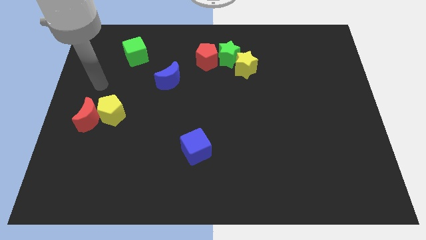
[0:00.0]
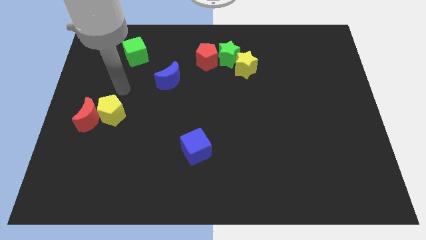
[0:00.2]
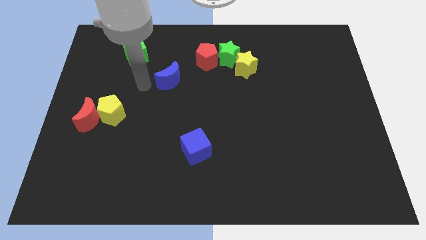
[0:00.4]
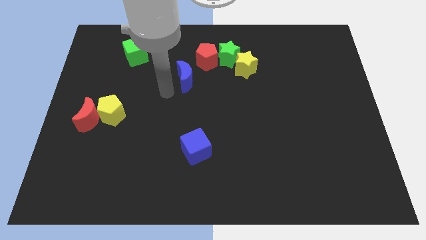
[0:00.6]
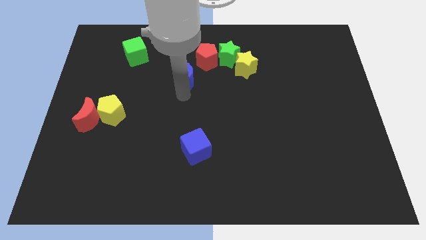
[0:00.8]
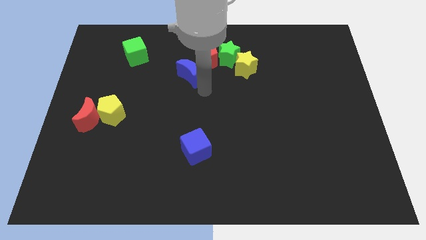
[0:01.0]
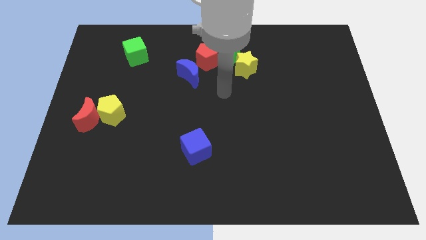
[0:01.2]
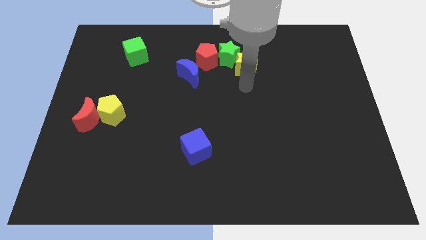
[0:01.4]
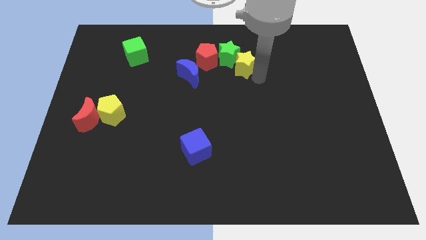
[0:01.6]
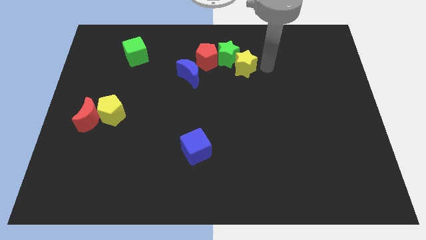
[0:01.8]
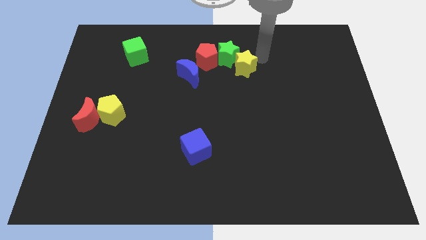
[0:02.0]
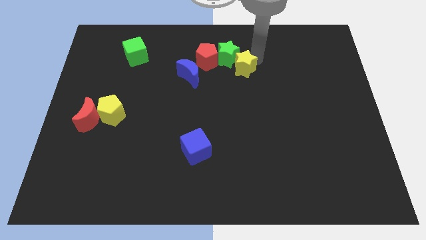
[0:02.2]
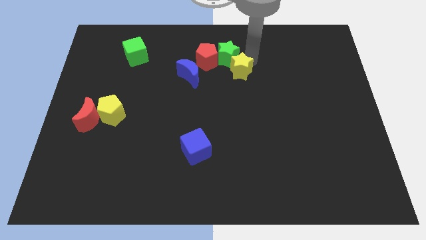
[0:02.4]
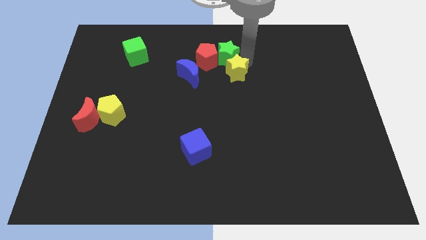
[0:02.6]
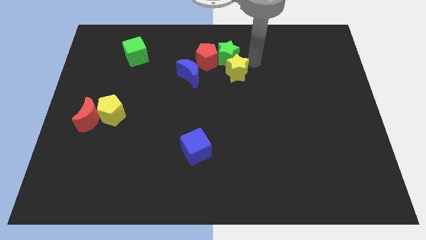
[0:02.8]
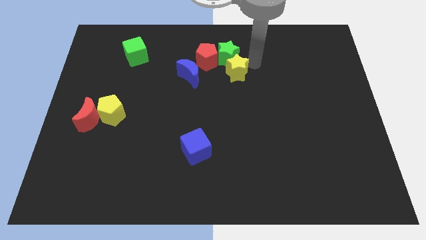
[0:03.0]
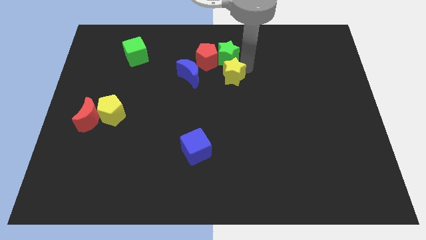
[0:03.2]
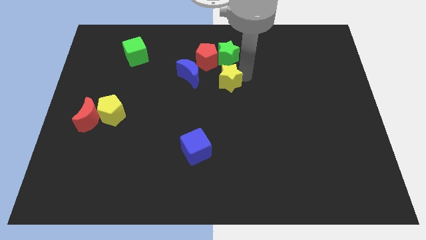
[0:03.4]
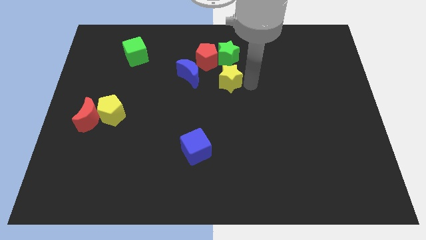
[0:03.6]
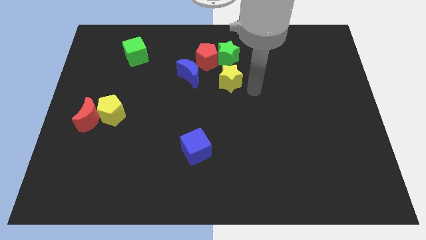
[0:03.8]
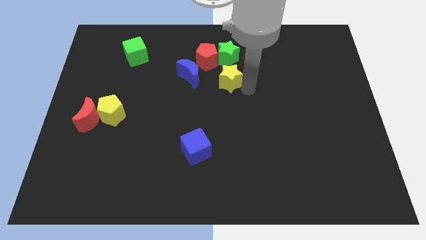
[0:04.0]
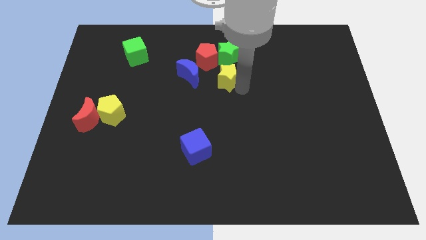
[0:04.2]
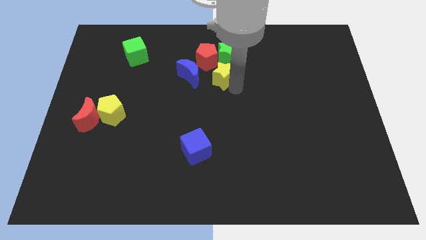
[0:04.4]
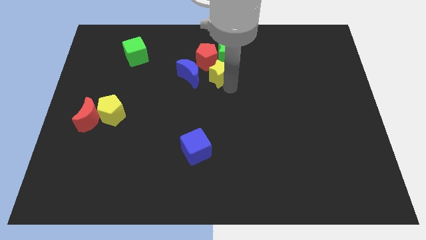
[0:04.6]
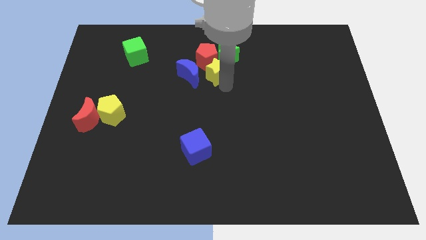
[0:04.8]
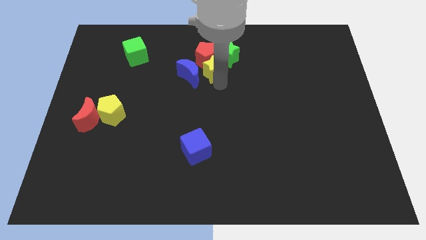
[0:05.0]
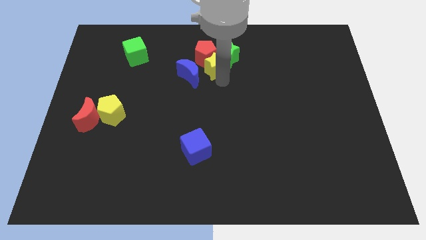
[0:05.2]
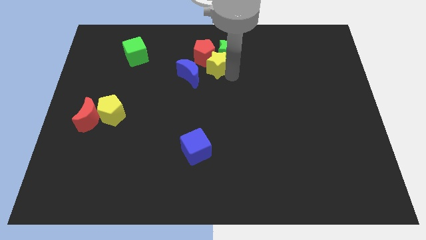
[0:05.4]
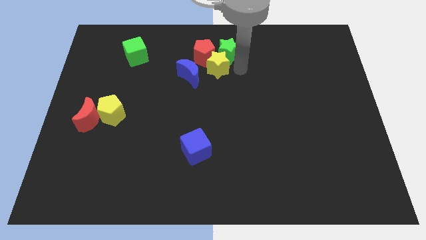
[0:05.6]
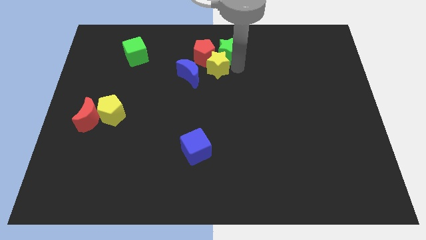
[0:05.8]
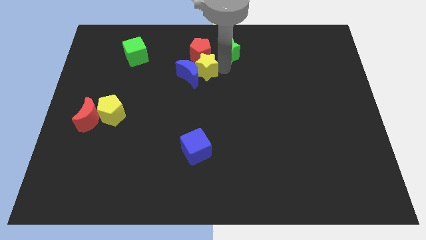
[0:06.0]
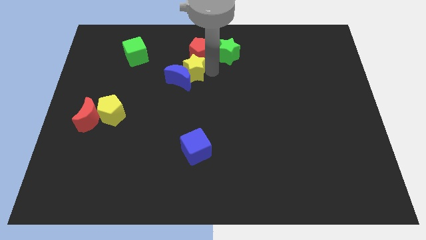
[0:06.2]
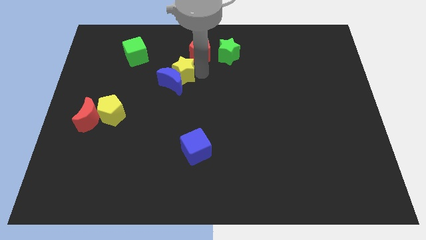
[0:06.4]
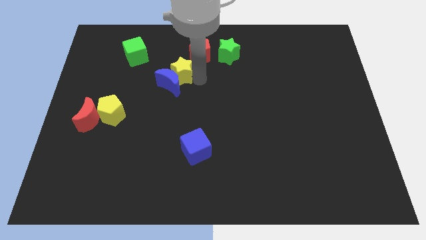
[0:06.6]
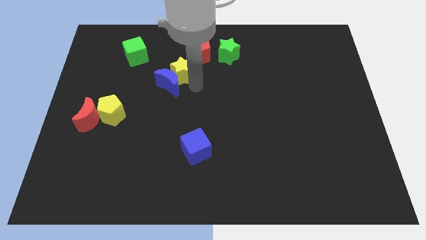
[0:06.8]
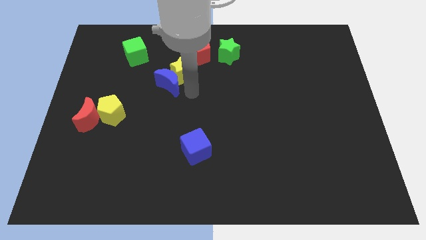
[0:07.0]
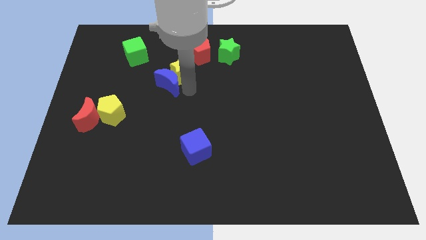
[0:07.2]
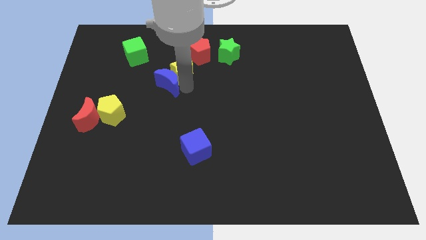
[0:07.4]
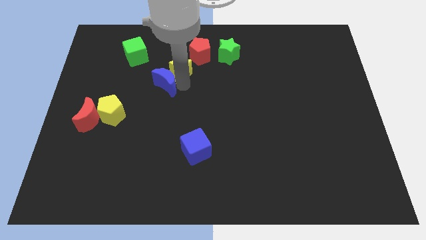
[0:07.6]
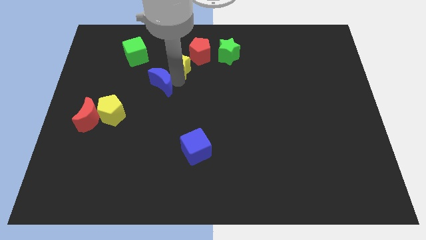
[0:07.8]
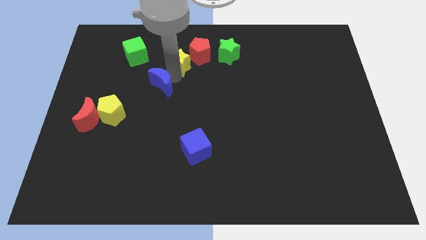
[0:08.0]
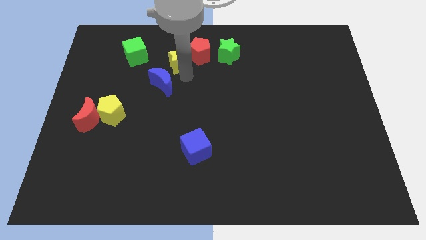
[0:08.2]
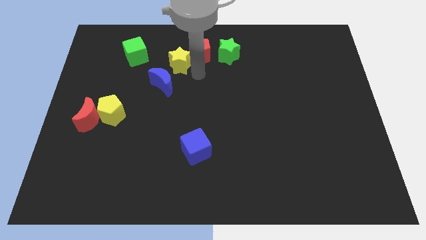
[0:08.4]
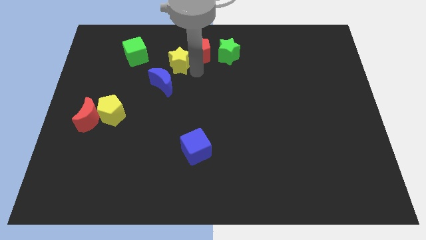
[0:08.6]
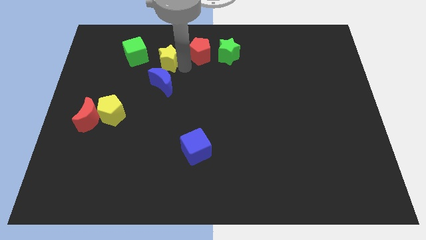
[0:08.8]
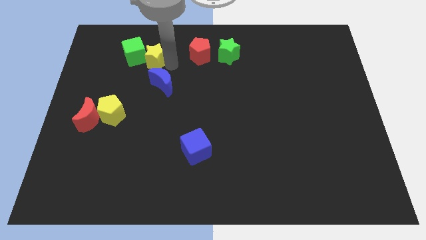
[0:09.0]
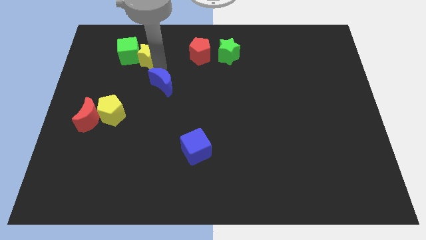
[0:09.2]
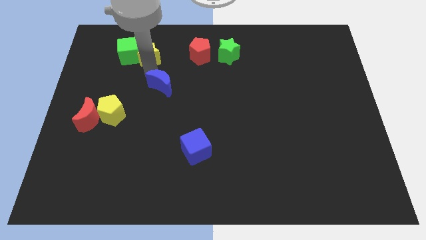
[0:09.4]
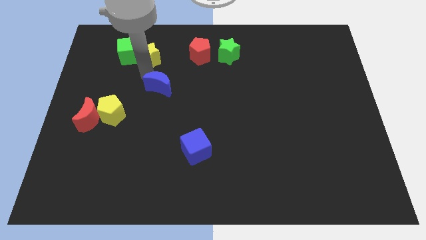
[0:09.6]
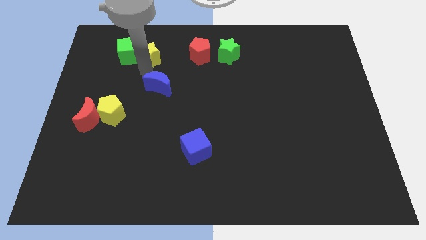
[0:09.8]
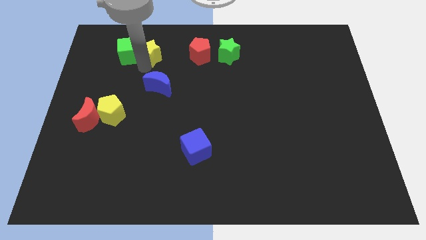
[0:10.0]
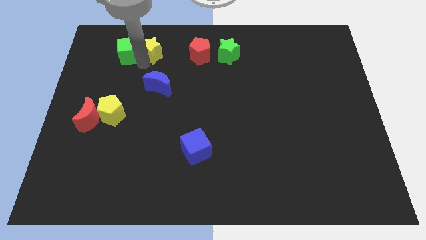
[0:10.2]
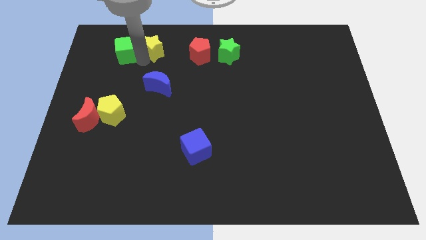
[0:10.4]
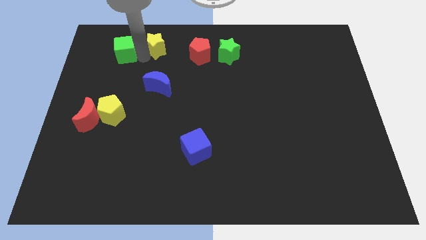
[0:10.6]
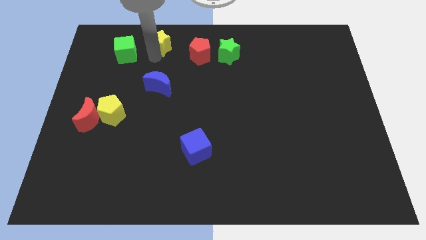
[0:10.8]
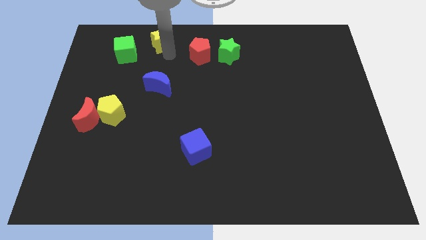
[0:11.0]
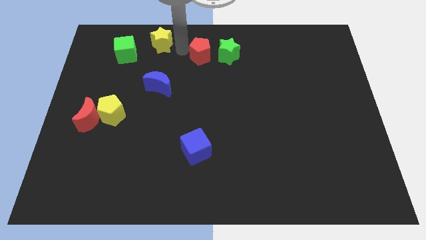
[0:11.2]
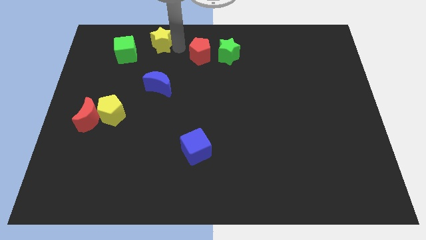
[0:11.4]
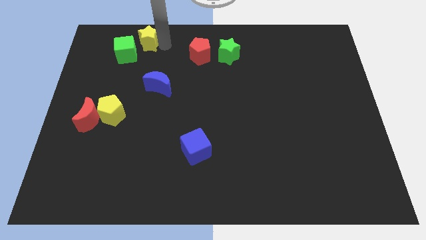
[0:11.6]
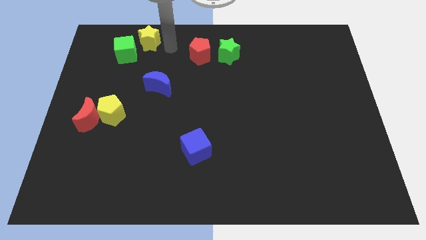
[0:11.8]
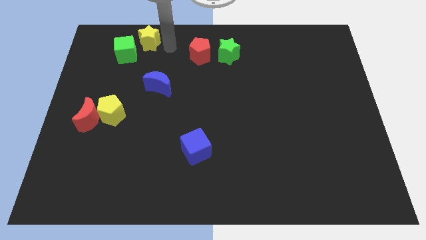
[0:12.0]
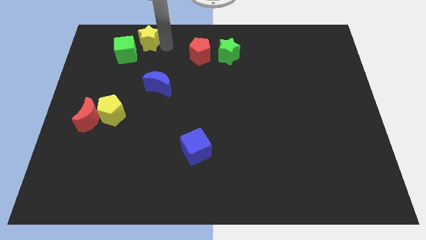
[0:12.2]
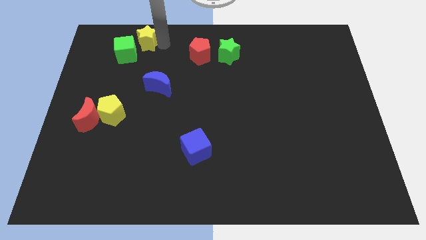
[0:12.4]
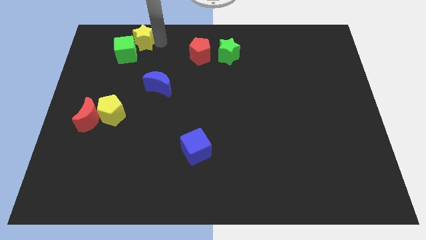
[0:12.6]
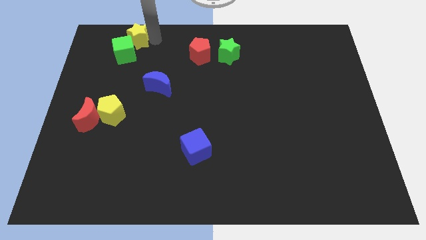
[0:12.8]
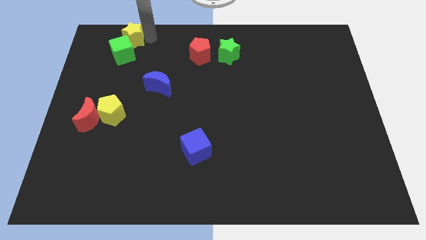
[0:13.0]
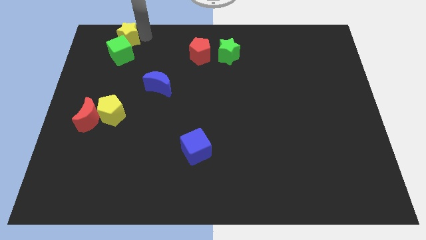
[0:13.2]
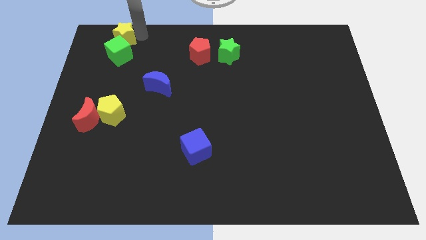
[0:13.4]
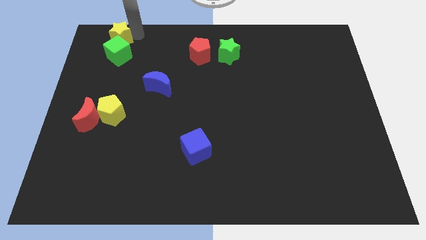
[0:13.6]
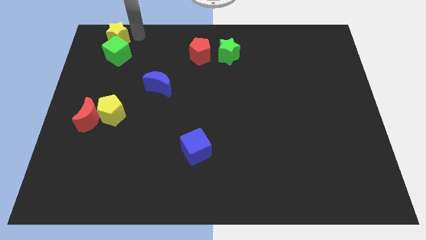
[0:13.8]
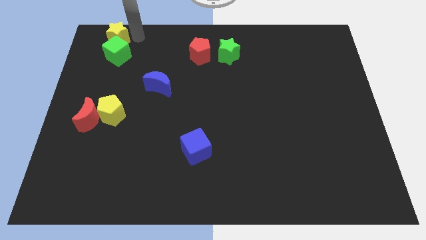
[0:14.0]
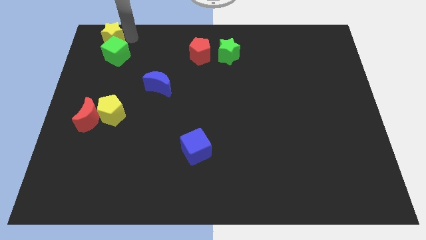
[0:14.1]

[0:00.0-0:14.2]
put the yellow star to the upper left corner
